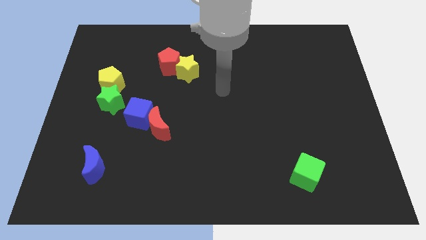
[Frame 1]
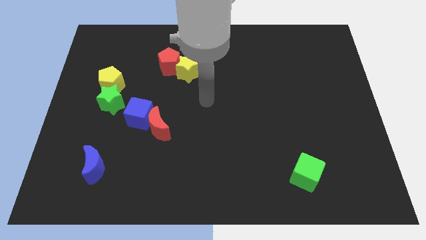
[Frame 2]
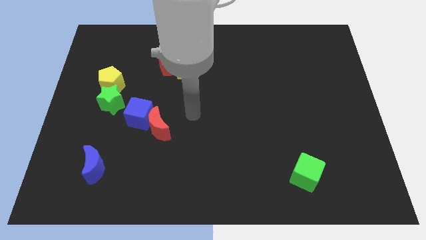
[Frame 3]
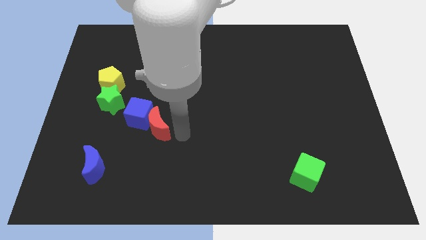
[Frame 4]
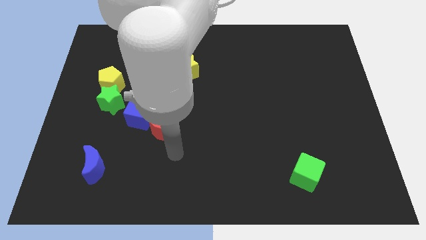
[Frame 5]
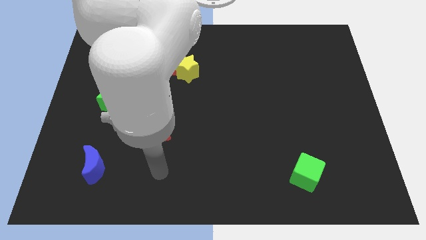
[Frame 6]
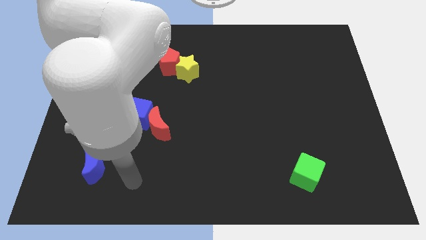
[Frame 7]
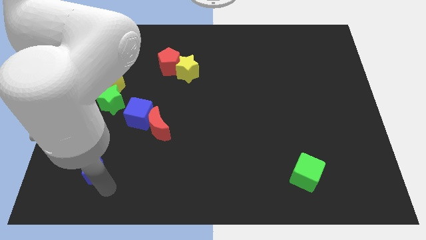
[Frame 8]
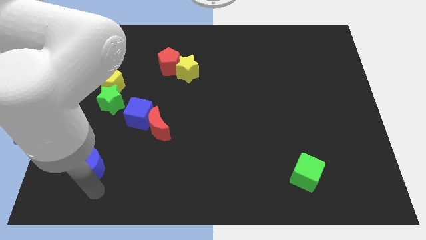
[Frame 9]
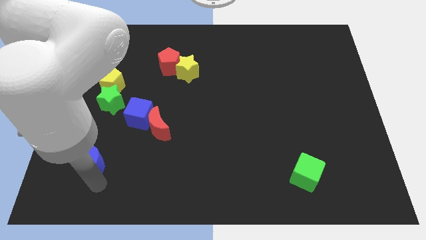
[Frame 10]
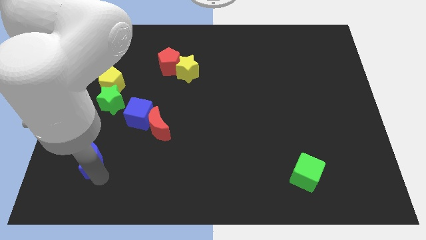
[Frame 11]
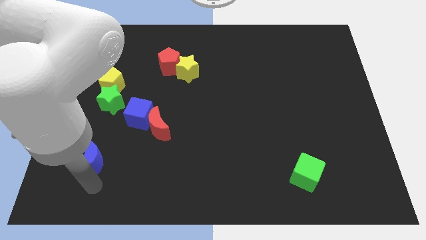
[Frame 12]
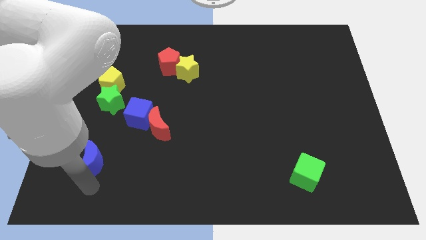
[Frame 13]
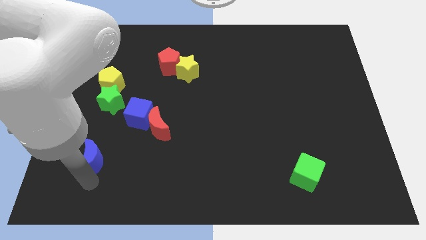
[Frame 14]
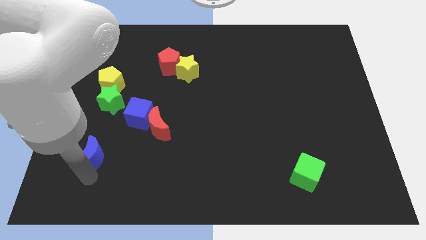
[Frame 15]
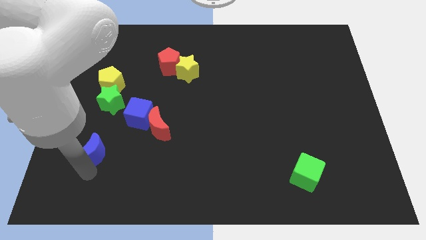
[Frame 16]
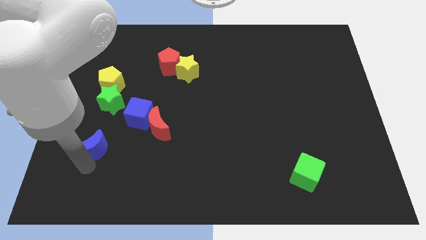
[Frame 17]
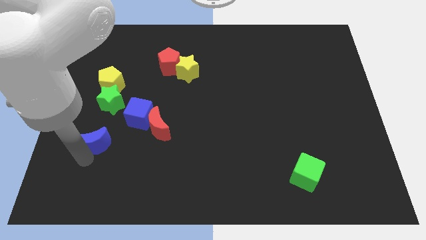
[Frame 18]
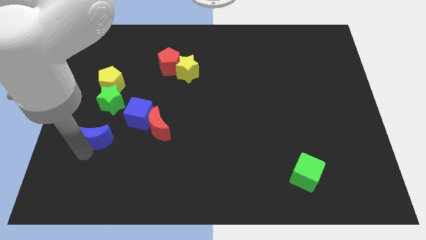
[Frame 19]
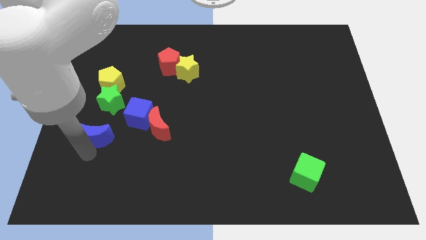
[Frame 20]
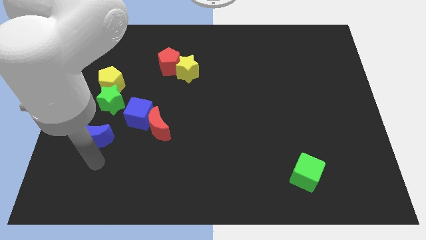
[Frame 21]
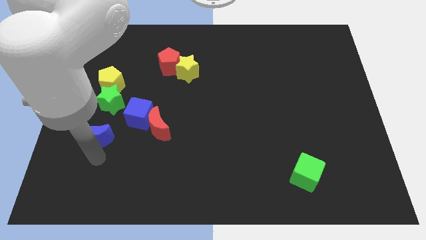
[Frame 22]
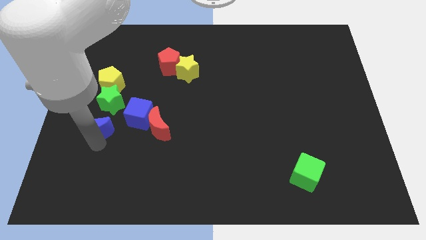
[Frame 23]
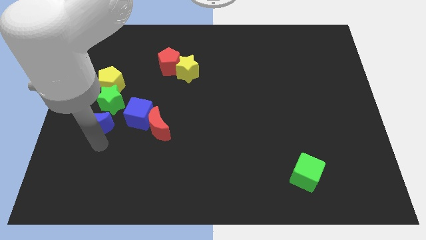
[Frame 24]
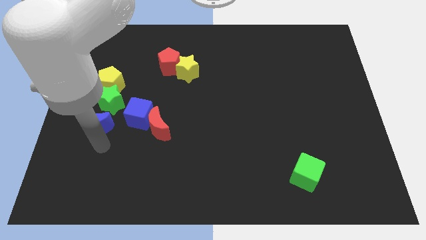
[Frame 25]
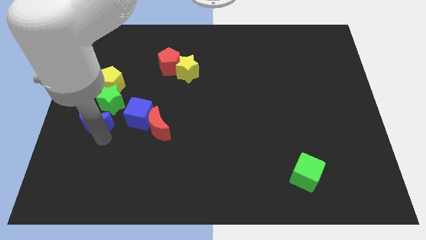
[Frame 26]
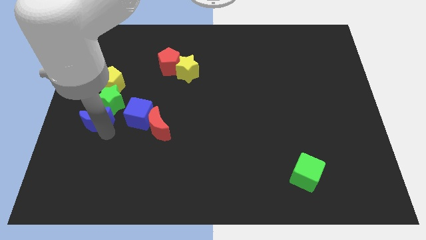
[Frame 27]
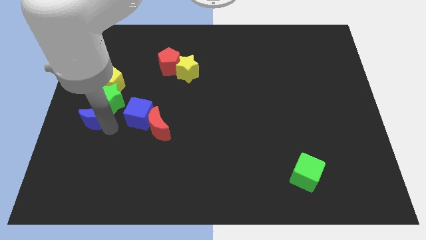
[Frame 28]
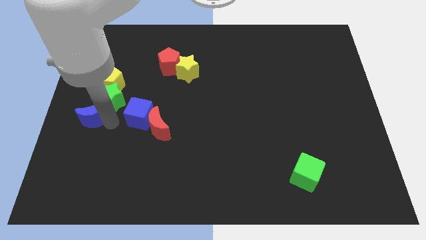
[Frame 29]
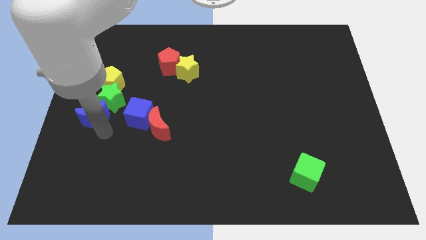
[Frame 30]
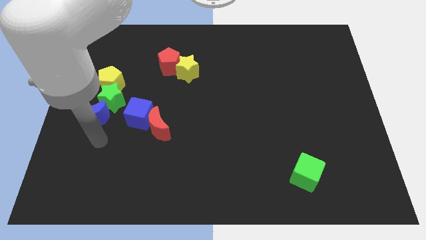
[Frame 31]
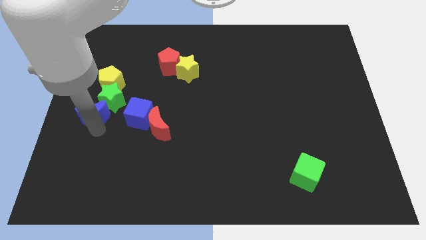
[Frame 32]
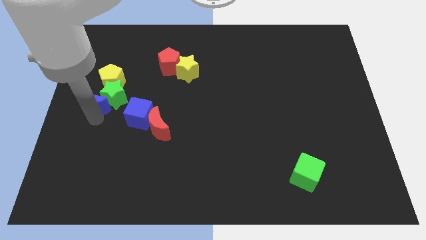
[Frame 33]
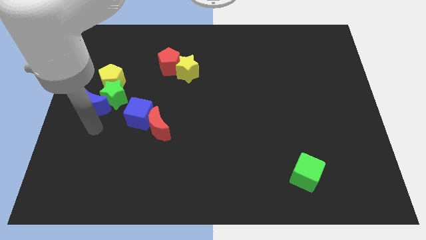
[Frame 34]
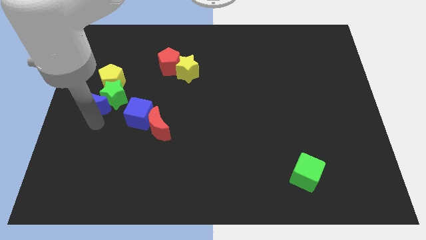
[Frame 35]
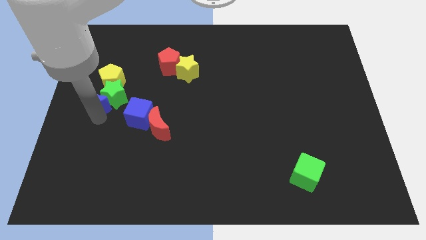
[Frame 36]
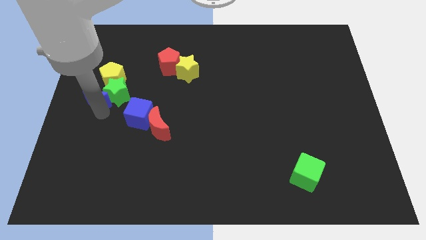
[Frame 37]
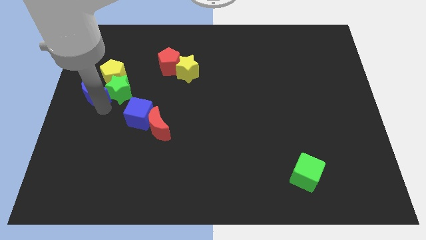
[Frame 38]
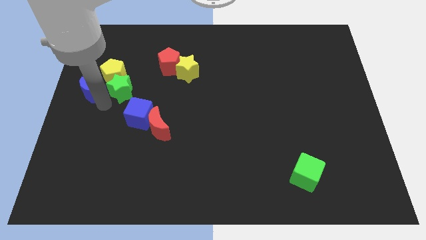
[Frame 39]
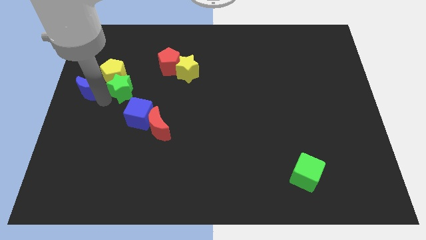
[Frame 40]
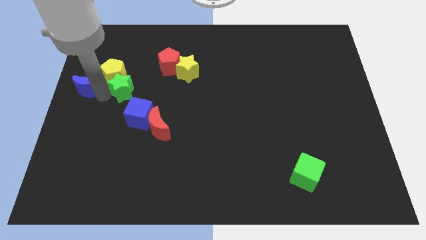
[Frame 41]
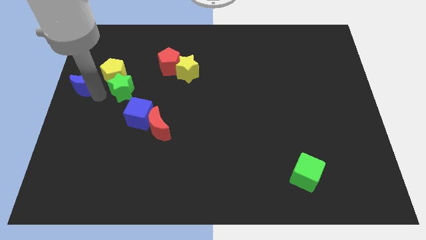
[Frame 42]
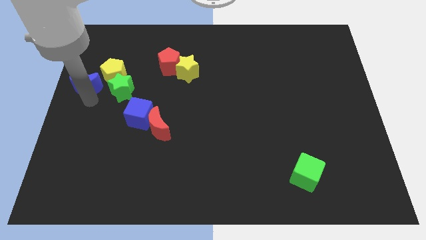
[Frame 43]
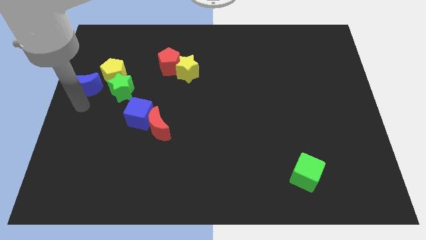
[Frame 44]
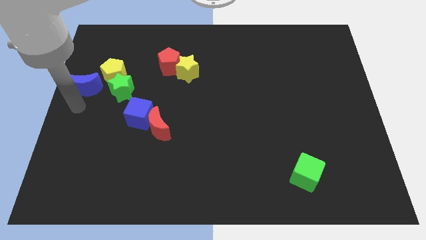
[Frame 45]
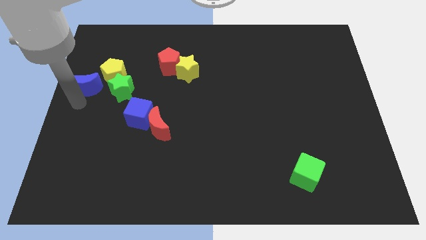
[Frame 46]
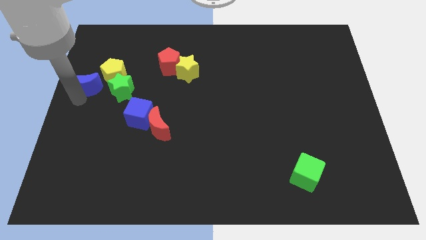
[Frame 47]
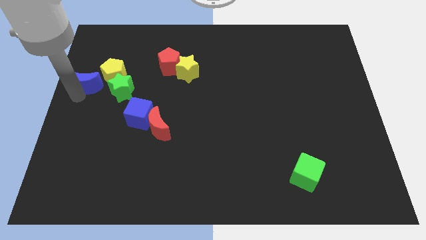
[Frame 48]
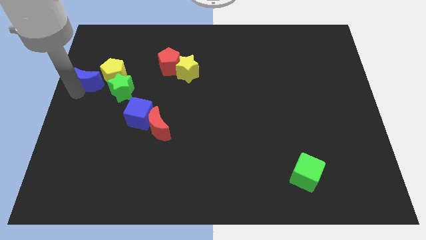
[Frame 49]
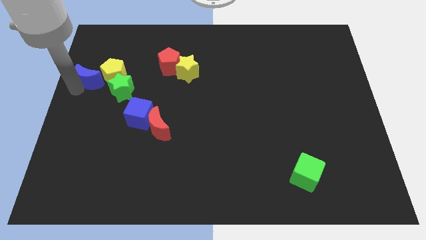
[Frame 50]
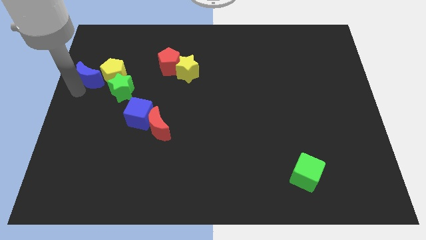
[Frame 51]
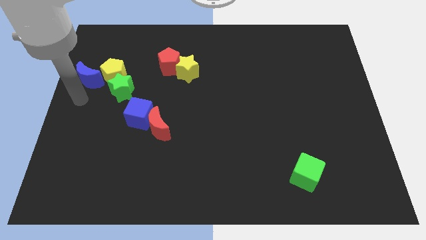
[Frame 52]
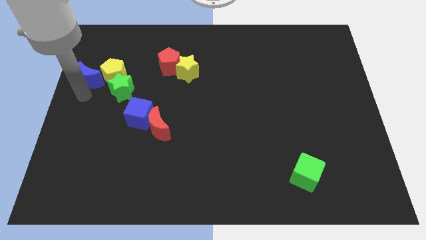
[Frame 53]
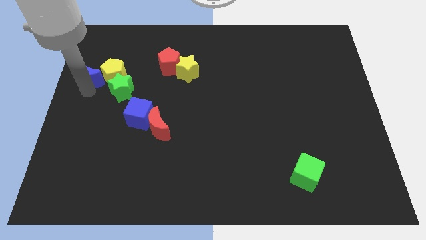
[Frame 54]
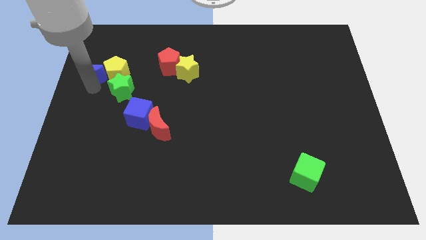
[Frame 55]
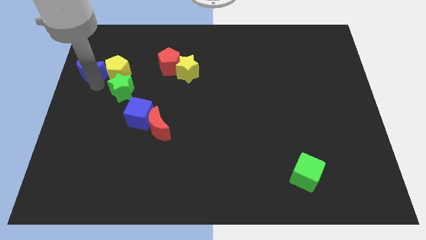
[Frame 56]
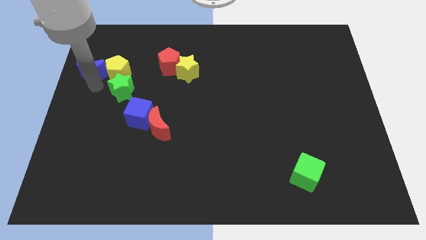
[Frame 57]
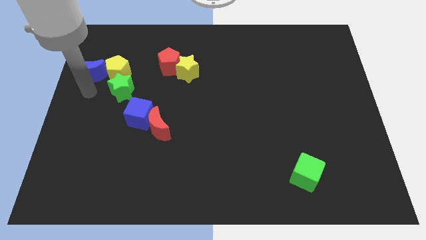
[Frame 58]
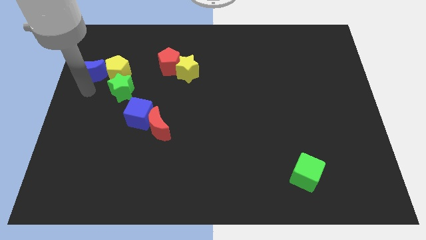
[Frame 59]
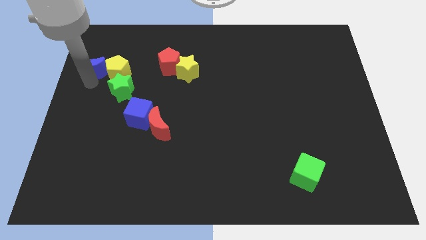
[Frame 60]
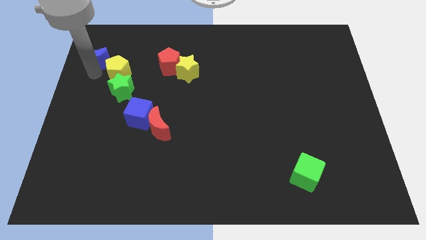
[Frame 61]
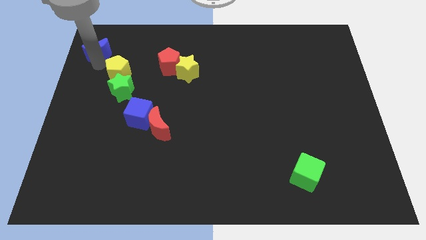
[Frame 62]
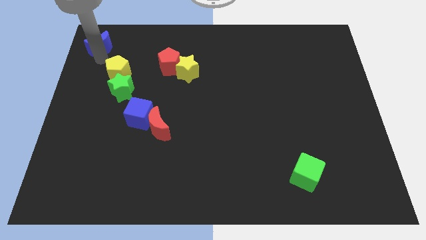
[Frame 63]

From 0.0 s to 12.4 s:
put the blue moon to the top left
